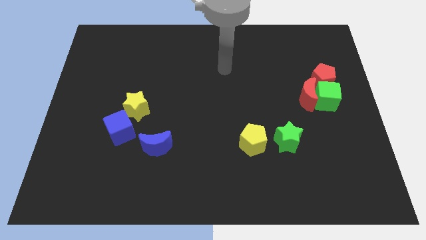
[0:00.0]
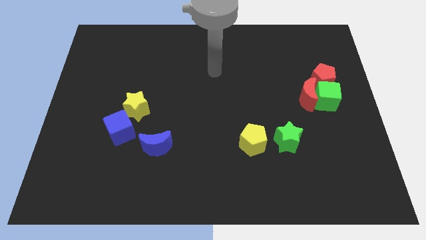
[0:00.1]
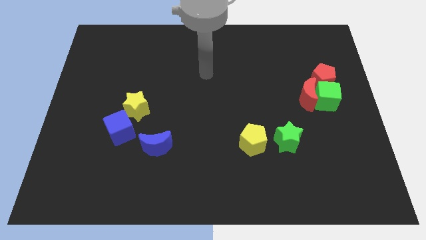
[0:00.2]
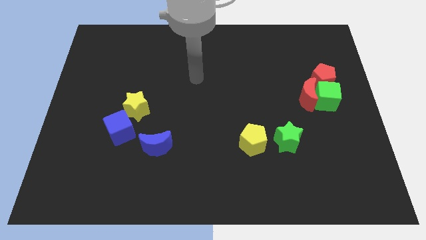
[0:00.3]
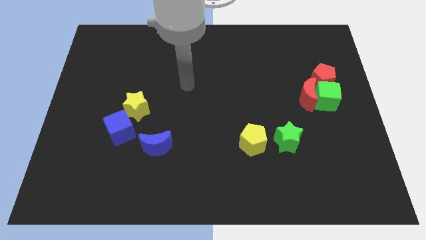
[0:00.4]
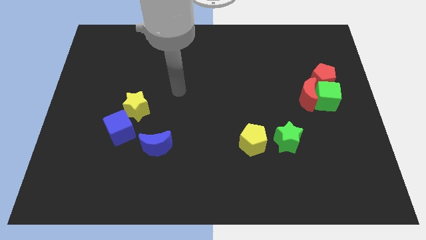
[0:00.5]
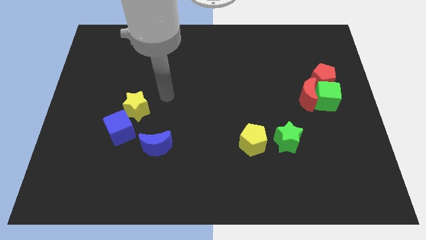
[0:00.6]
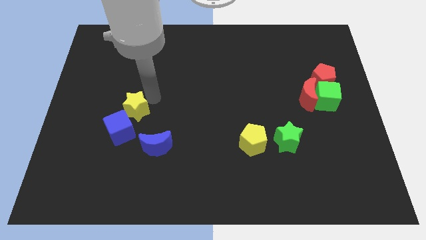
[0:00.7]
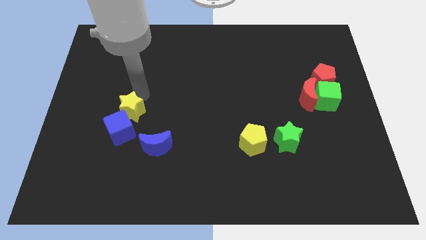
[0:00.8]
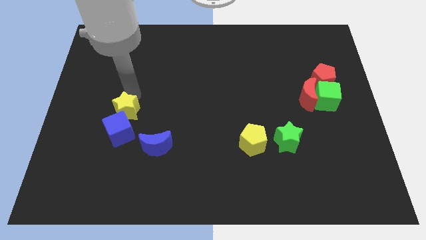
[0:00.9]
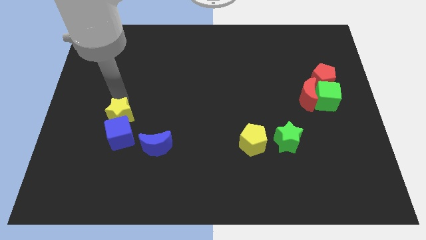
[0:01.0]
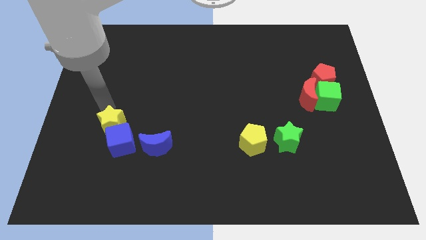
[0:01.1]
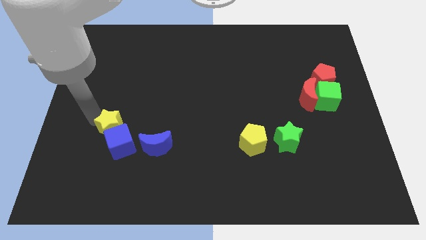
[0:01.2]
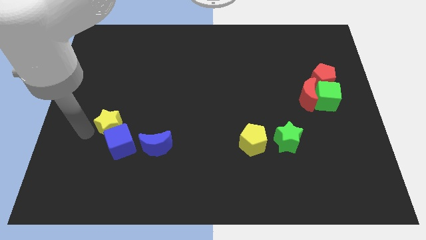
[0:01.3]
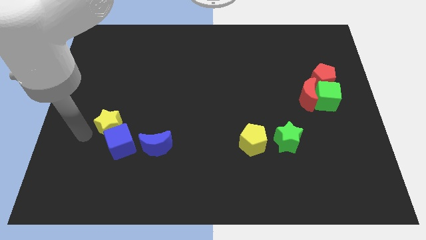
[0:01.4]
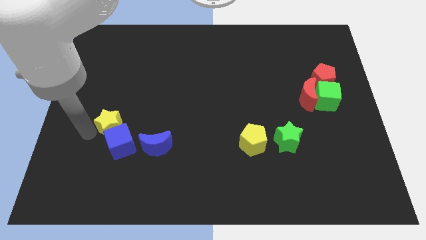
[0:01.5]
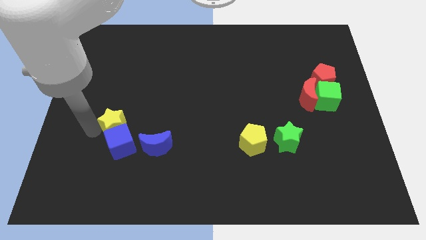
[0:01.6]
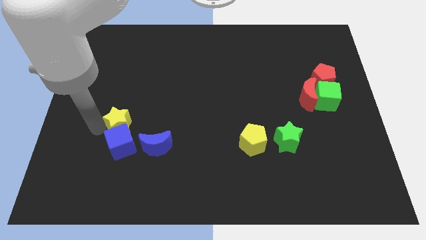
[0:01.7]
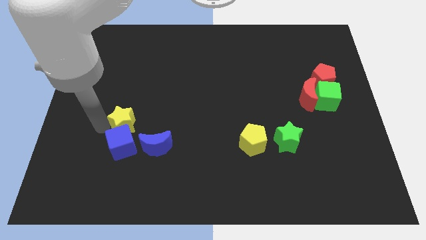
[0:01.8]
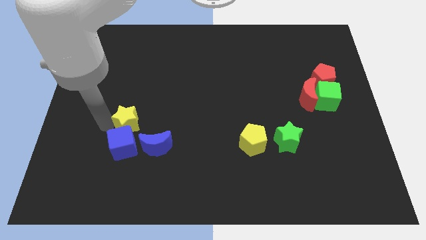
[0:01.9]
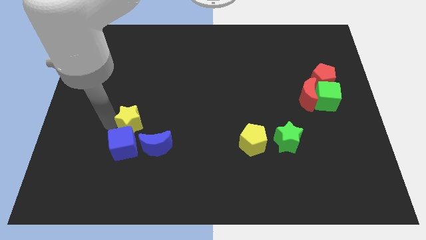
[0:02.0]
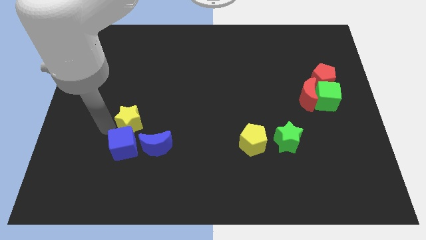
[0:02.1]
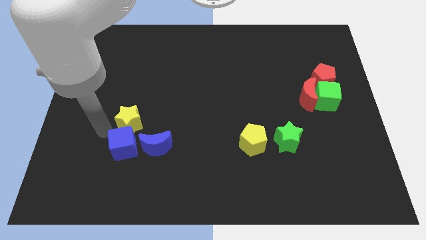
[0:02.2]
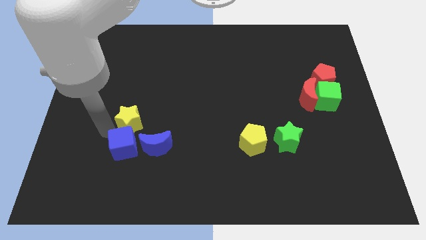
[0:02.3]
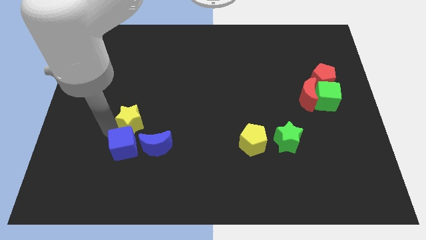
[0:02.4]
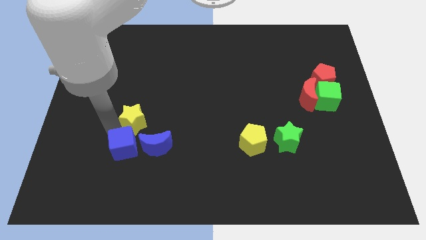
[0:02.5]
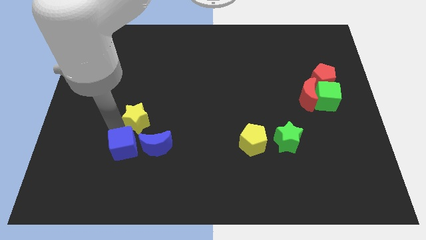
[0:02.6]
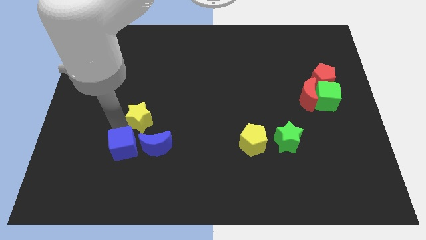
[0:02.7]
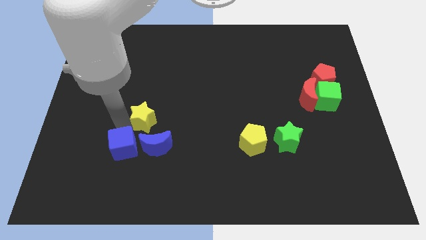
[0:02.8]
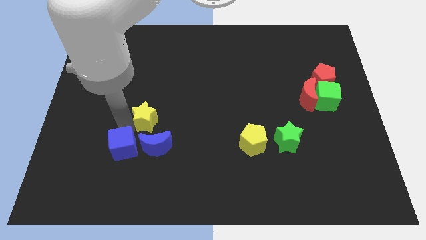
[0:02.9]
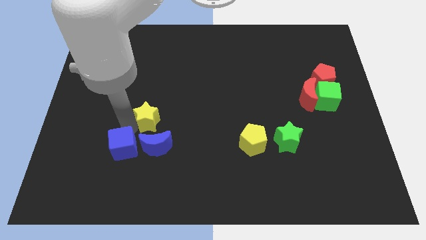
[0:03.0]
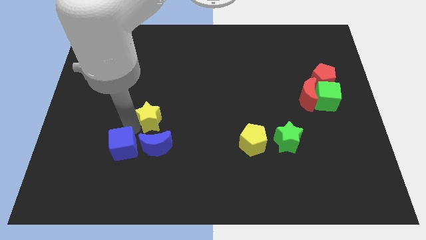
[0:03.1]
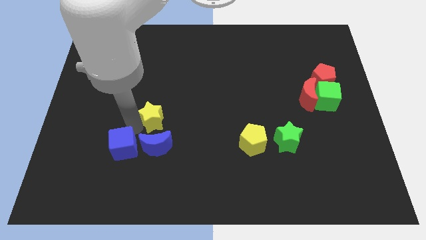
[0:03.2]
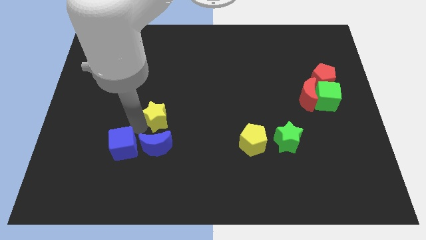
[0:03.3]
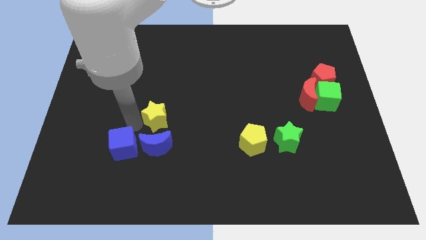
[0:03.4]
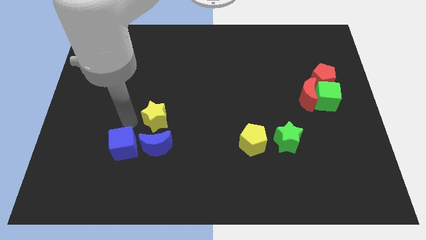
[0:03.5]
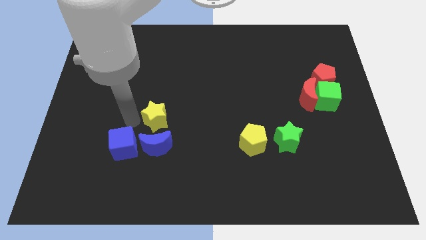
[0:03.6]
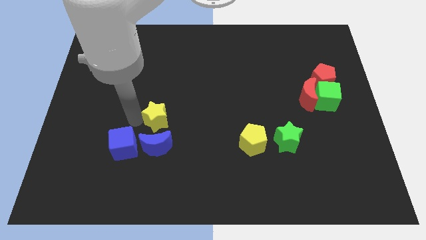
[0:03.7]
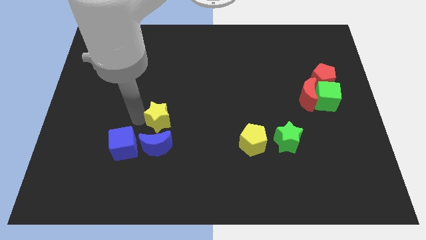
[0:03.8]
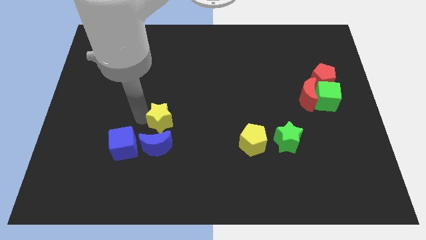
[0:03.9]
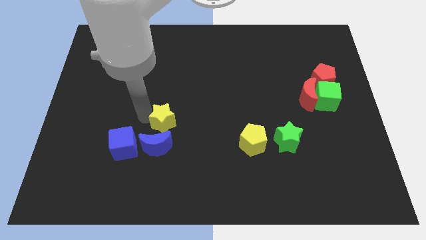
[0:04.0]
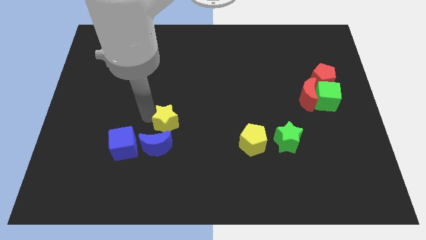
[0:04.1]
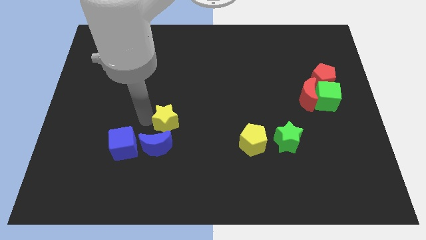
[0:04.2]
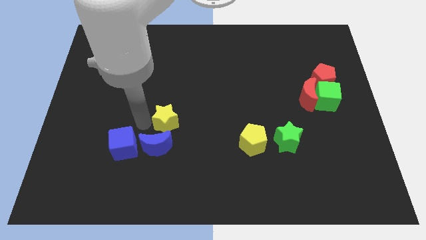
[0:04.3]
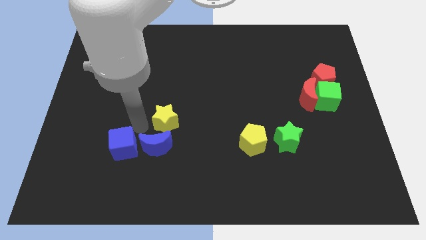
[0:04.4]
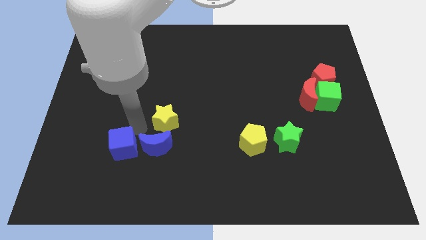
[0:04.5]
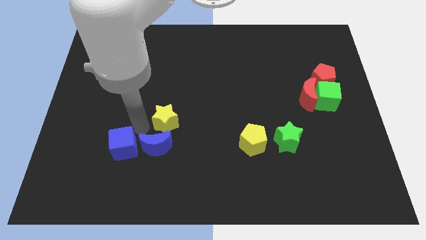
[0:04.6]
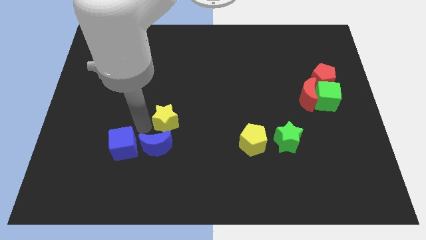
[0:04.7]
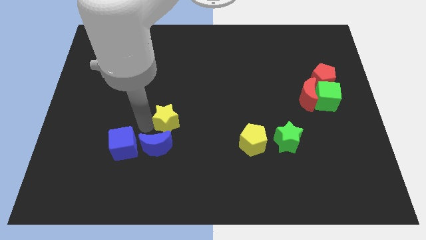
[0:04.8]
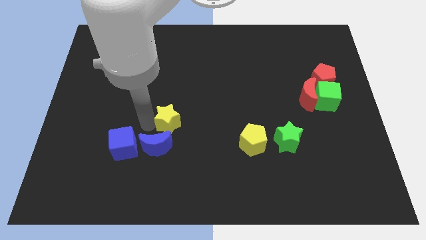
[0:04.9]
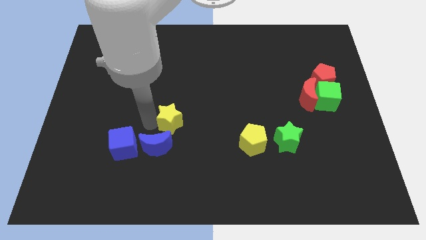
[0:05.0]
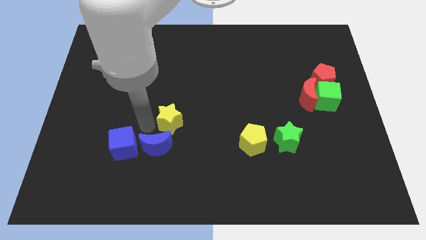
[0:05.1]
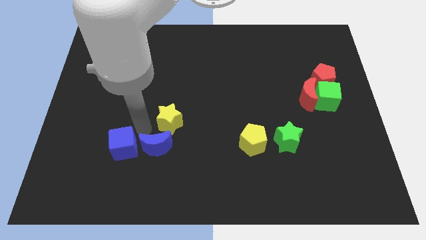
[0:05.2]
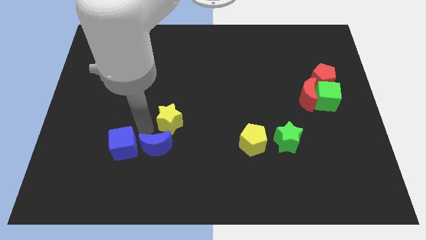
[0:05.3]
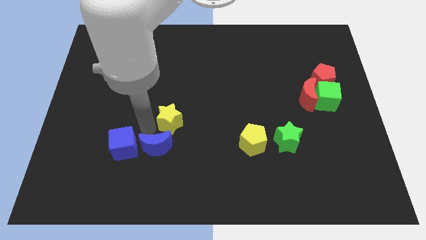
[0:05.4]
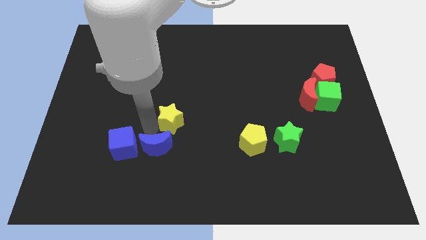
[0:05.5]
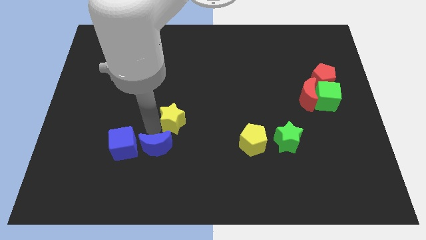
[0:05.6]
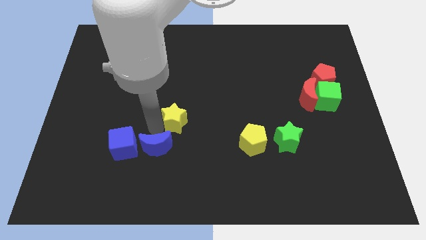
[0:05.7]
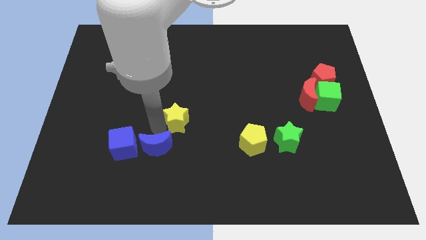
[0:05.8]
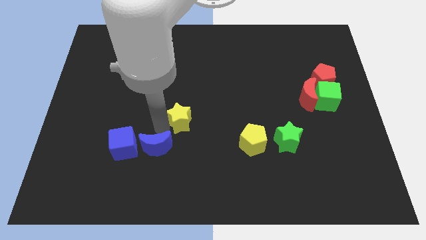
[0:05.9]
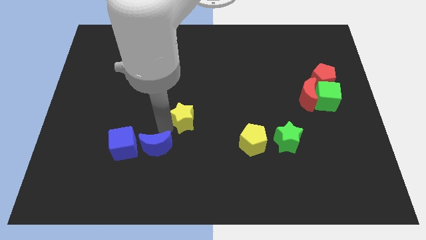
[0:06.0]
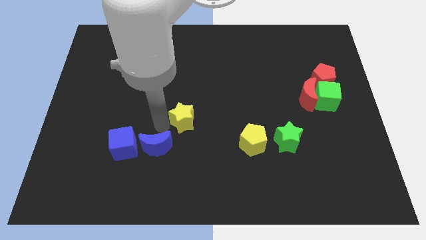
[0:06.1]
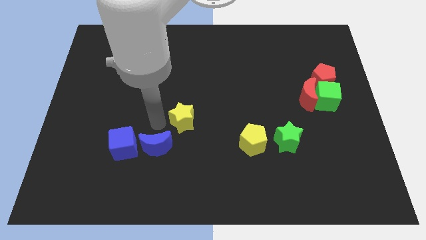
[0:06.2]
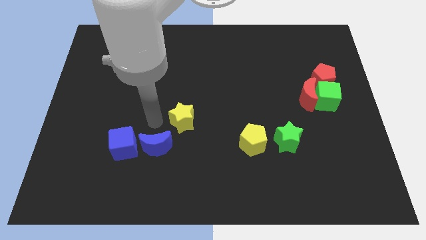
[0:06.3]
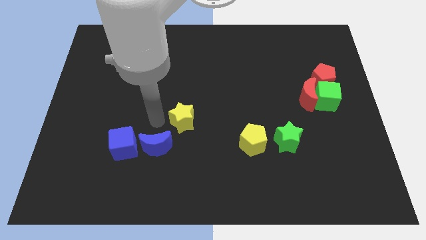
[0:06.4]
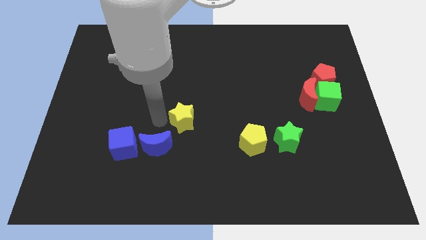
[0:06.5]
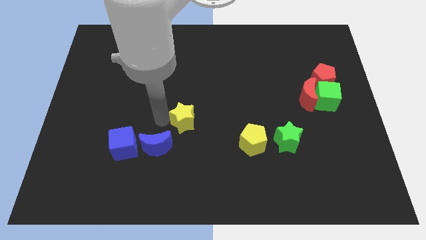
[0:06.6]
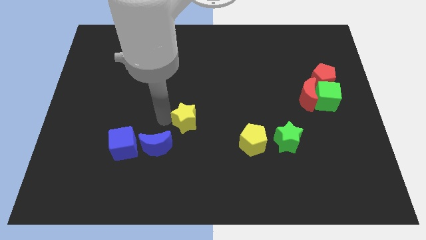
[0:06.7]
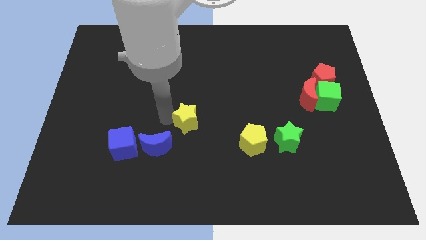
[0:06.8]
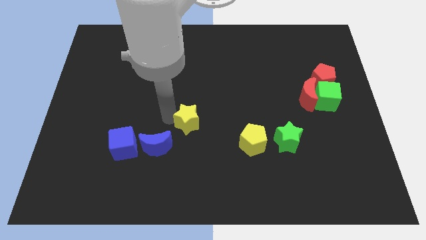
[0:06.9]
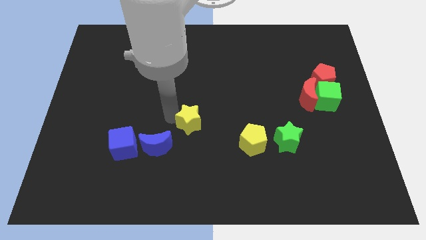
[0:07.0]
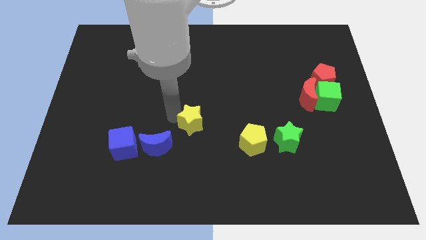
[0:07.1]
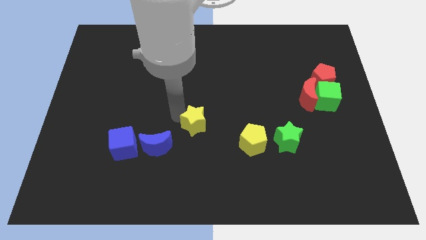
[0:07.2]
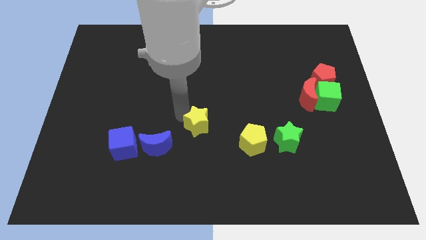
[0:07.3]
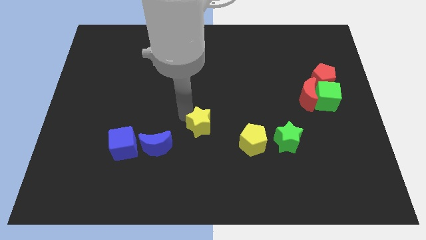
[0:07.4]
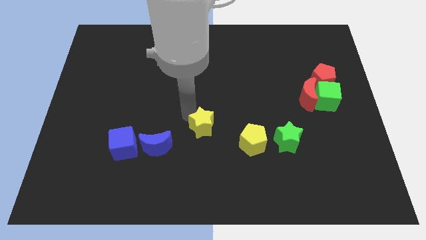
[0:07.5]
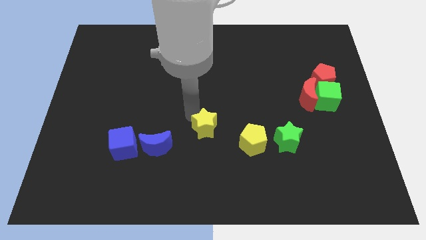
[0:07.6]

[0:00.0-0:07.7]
move the yellow star to the top left side of the yellow pentagon

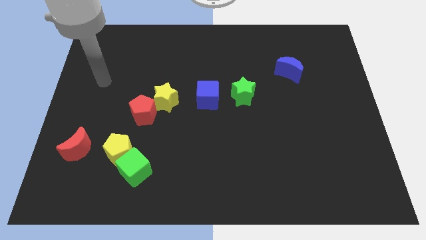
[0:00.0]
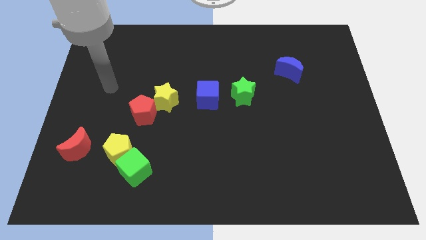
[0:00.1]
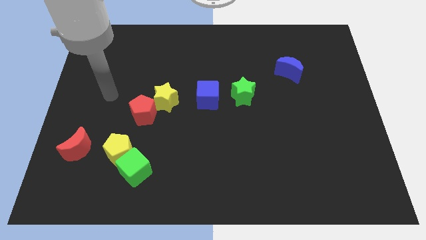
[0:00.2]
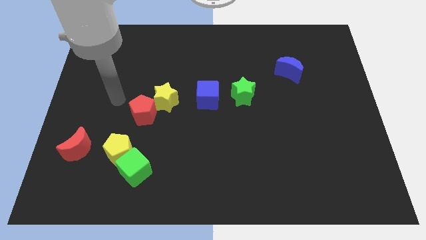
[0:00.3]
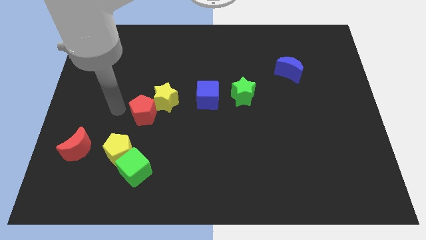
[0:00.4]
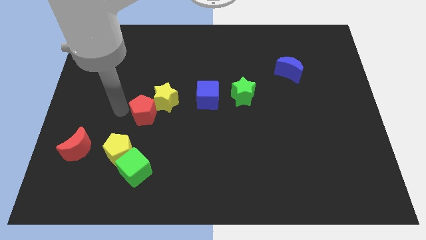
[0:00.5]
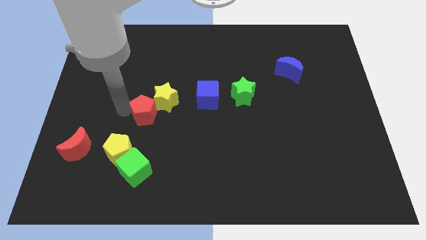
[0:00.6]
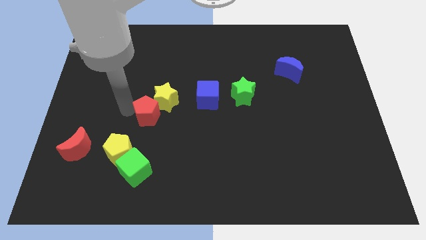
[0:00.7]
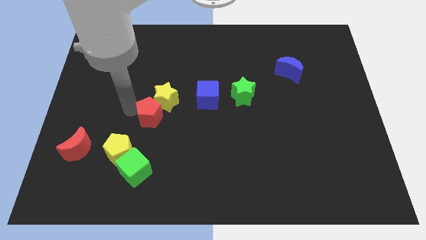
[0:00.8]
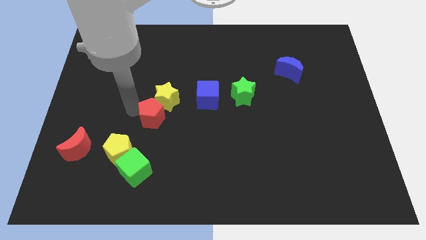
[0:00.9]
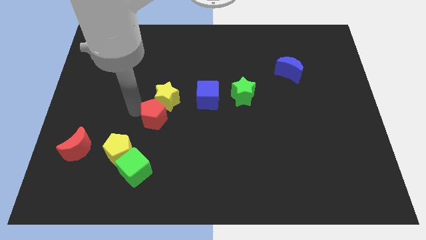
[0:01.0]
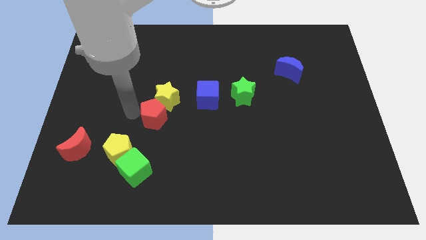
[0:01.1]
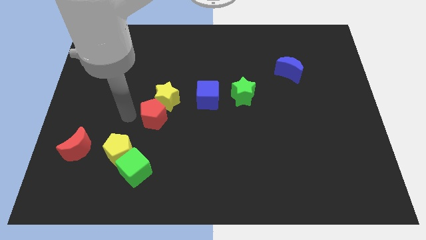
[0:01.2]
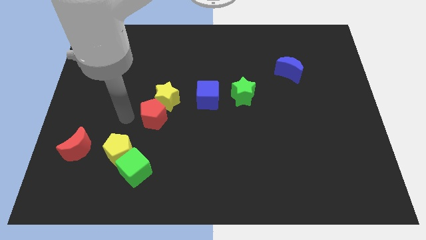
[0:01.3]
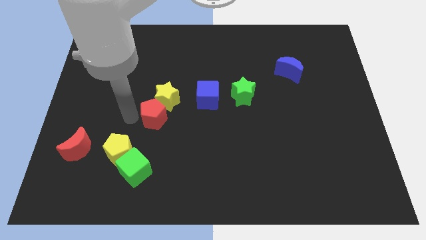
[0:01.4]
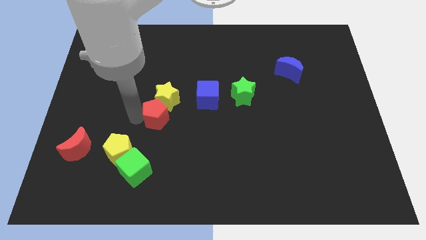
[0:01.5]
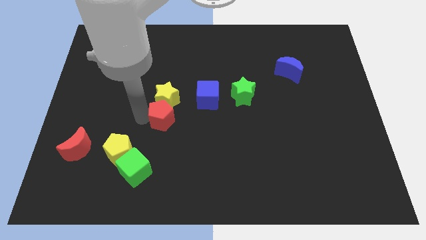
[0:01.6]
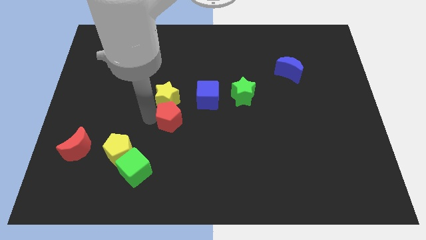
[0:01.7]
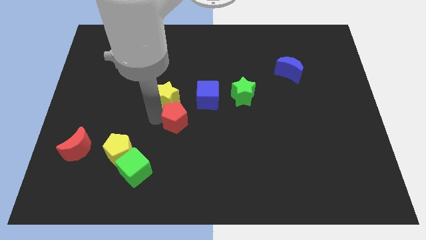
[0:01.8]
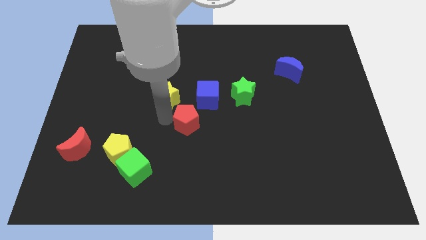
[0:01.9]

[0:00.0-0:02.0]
put the red pentagon to the bottom of the blue cube
